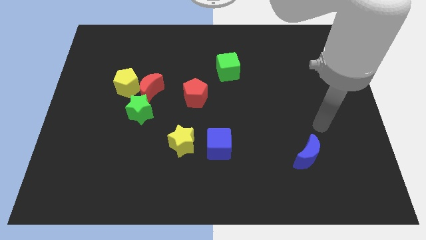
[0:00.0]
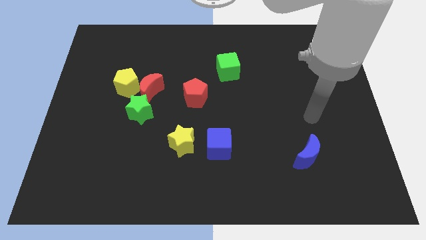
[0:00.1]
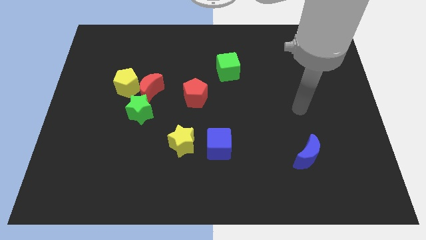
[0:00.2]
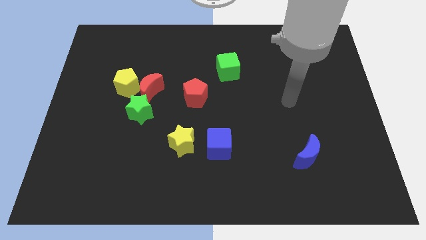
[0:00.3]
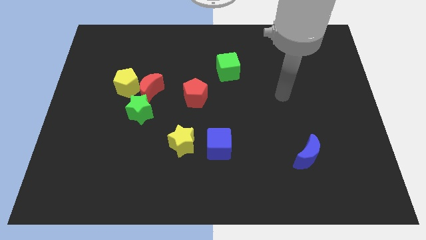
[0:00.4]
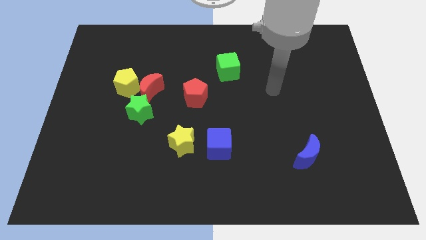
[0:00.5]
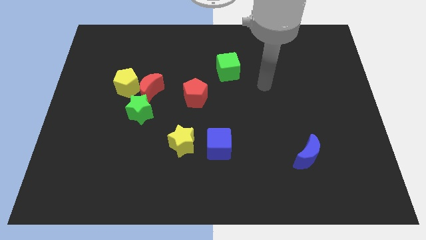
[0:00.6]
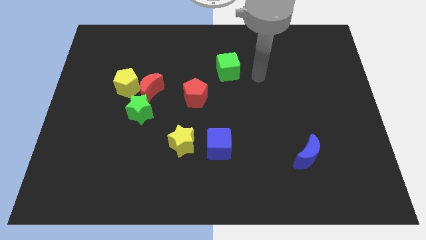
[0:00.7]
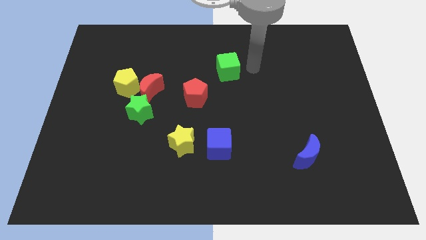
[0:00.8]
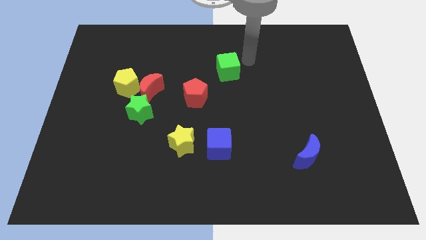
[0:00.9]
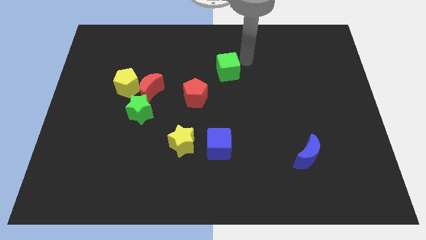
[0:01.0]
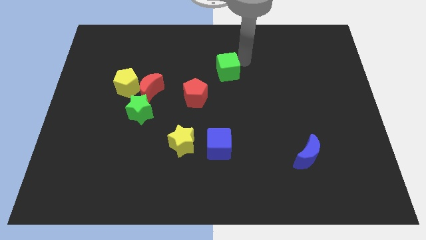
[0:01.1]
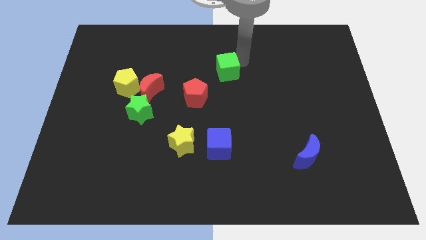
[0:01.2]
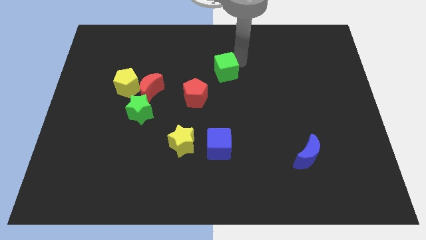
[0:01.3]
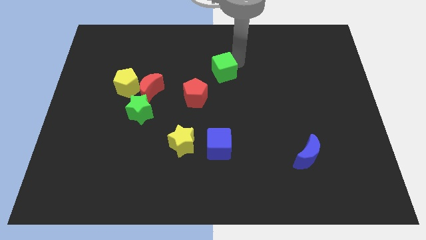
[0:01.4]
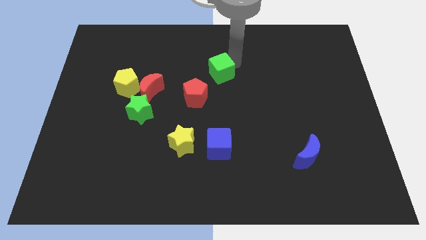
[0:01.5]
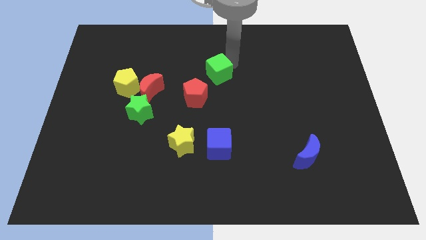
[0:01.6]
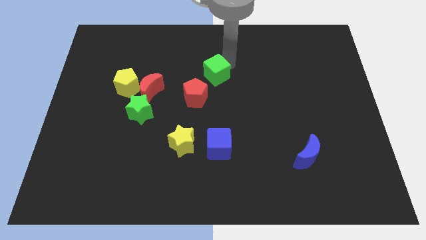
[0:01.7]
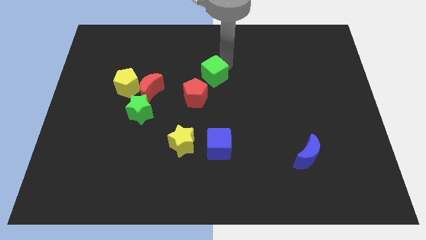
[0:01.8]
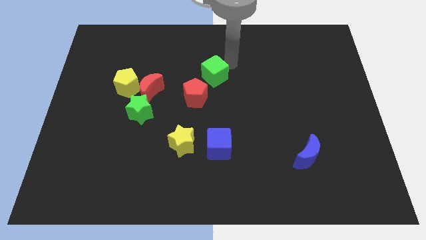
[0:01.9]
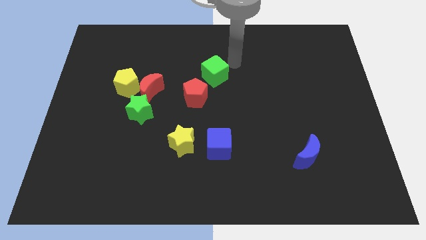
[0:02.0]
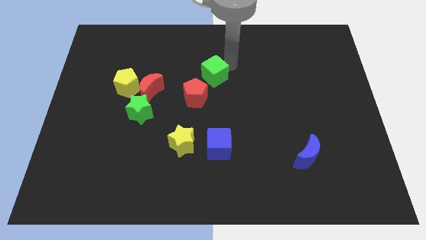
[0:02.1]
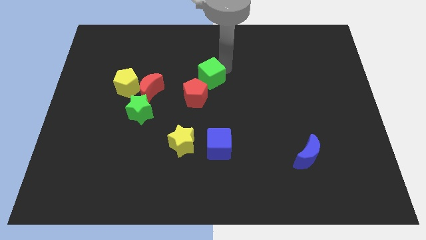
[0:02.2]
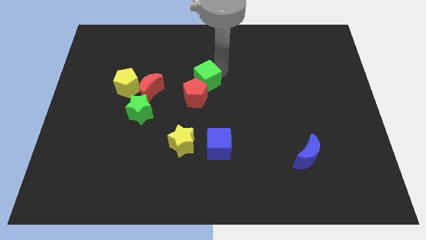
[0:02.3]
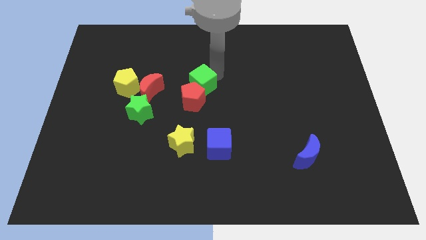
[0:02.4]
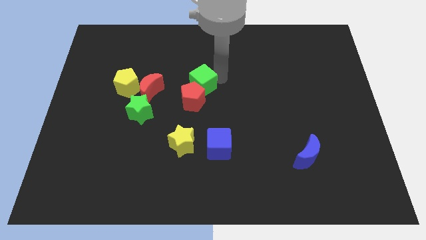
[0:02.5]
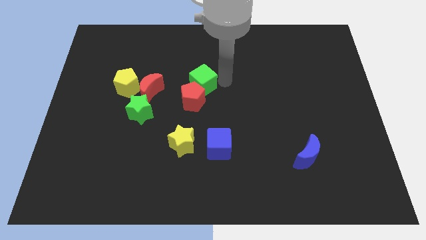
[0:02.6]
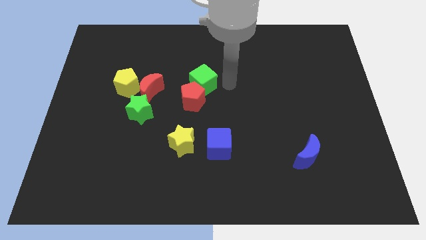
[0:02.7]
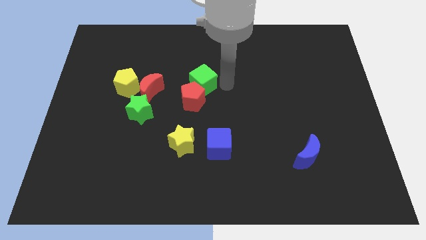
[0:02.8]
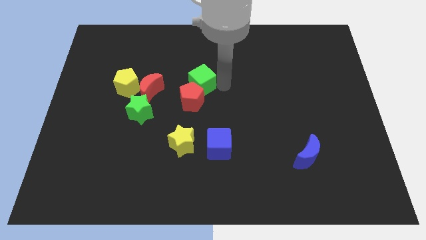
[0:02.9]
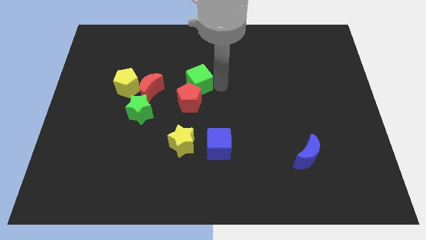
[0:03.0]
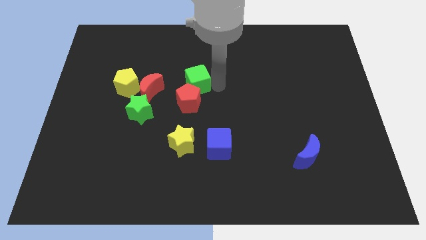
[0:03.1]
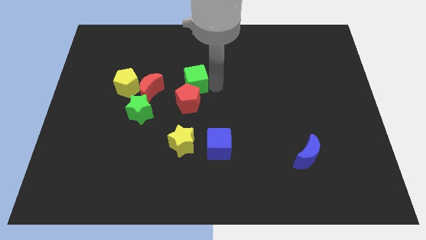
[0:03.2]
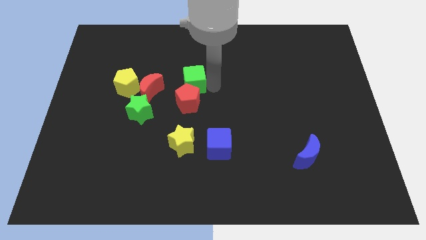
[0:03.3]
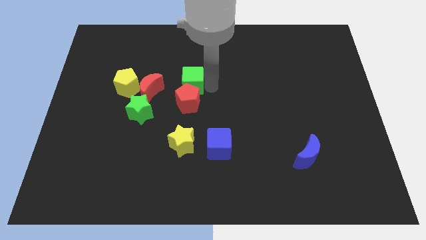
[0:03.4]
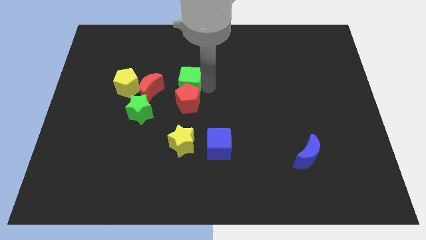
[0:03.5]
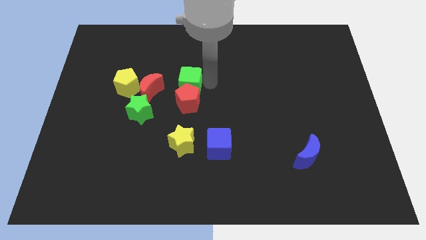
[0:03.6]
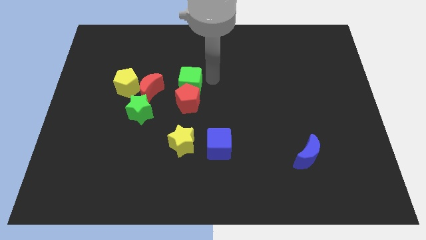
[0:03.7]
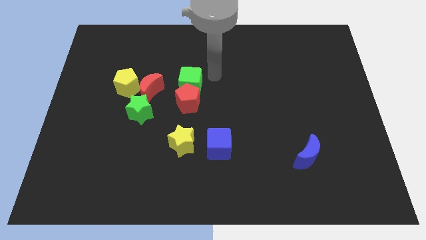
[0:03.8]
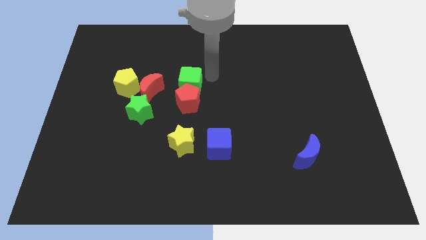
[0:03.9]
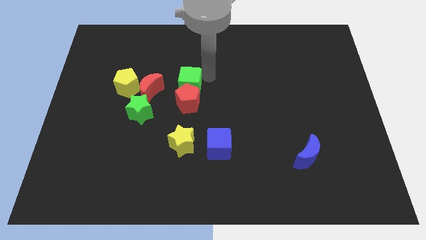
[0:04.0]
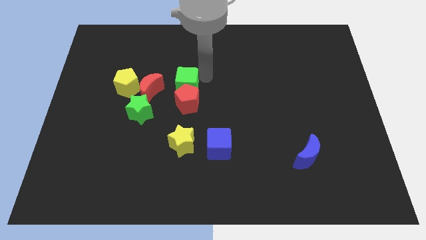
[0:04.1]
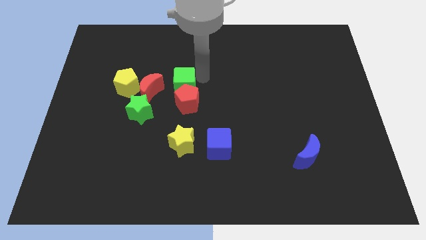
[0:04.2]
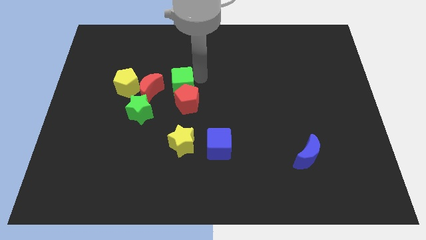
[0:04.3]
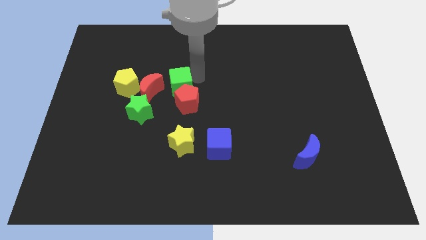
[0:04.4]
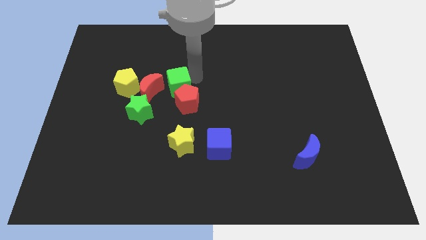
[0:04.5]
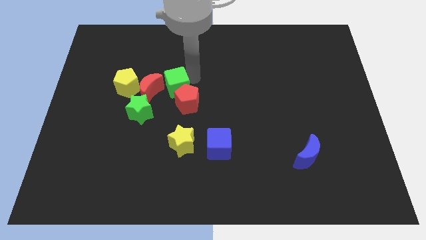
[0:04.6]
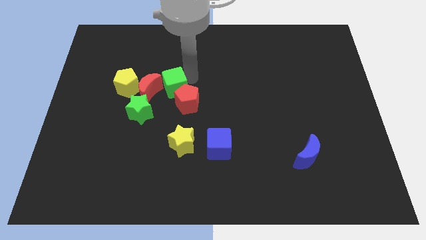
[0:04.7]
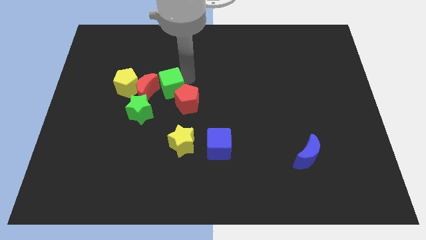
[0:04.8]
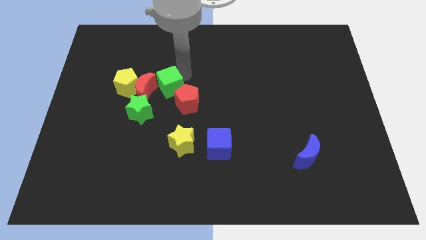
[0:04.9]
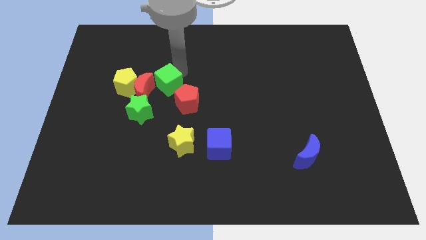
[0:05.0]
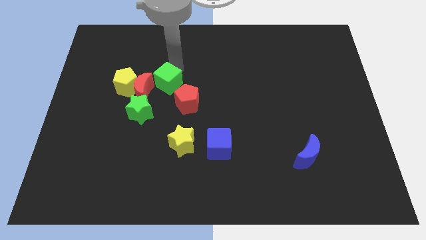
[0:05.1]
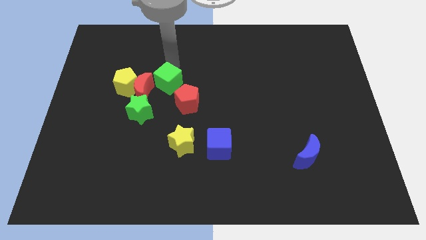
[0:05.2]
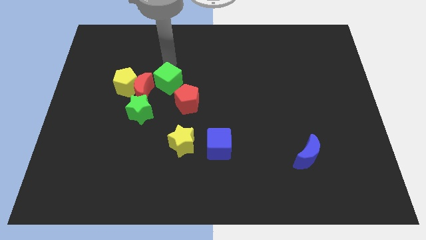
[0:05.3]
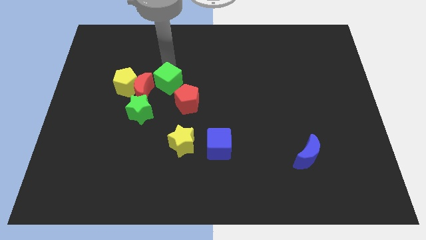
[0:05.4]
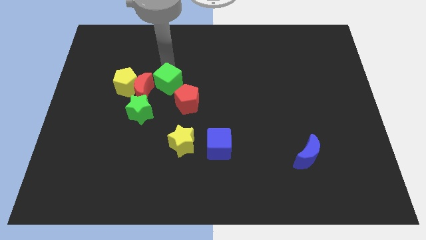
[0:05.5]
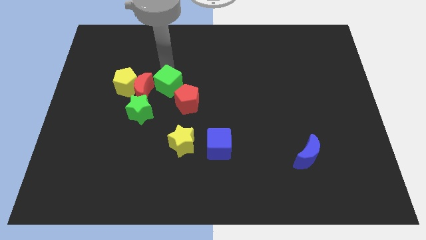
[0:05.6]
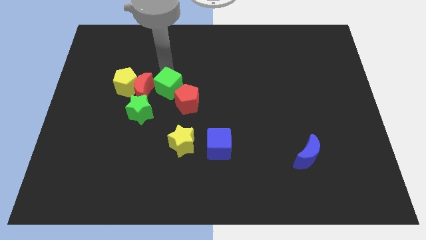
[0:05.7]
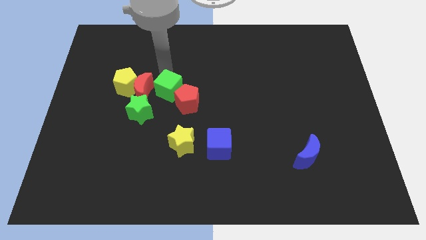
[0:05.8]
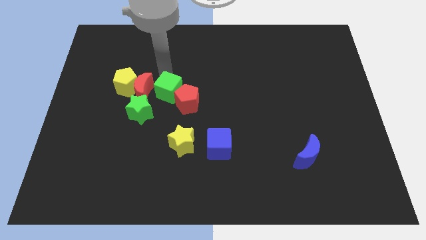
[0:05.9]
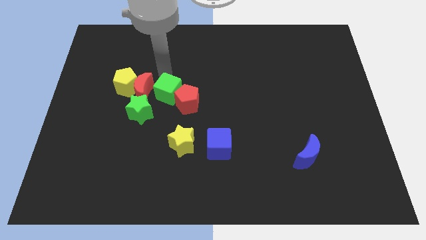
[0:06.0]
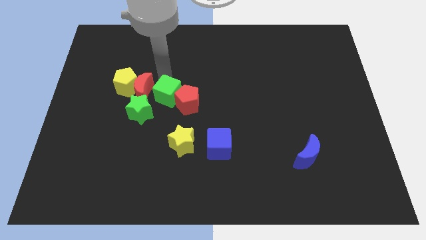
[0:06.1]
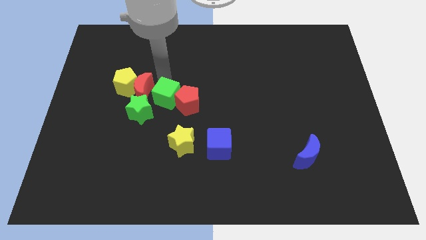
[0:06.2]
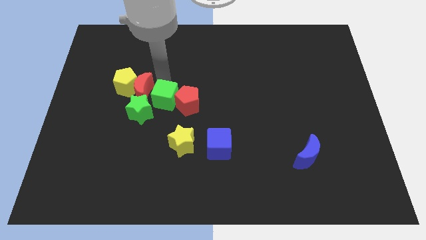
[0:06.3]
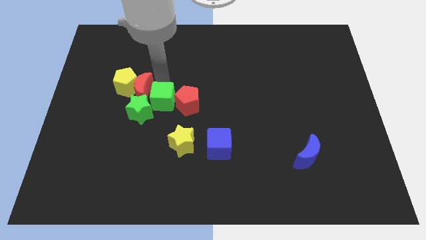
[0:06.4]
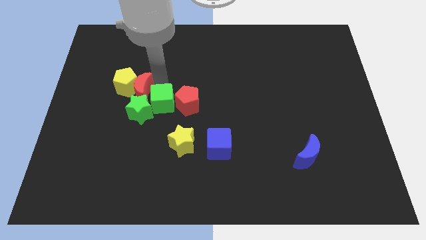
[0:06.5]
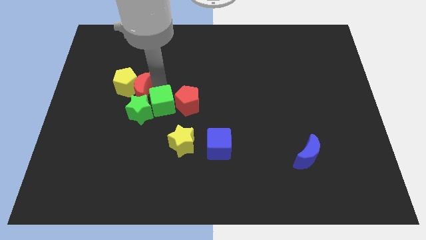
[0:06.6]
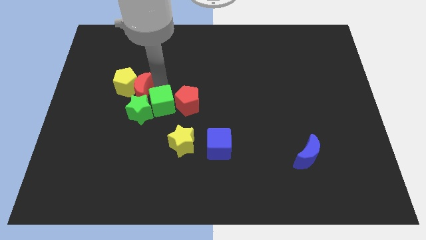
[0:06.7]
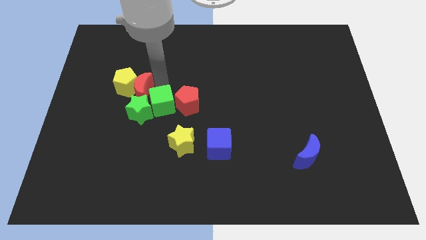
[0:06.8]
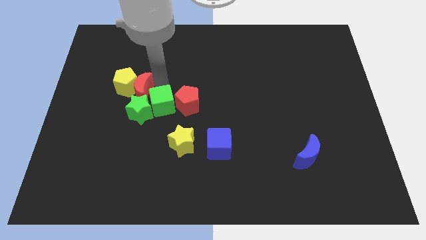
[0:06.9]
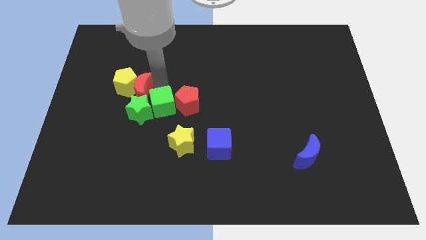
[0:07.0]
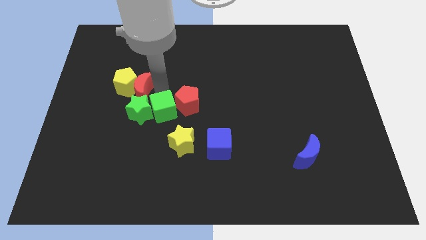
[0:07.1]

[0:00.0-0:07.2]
put the green cube diagonally down and to the right of the green star

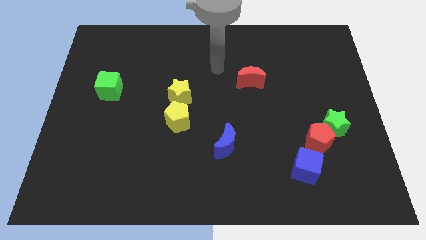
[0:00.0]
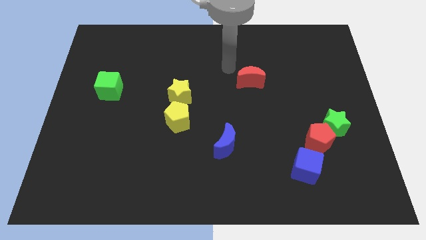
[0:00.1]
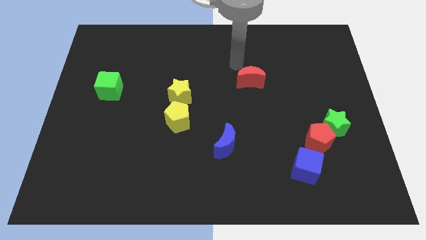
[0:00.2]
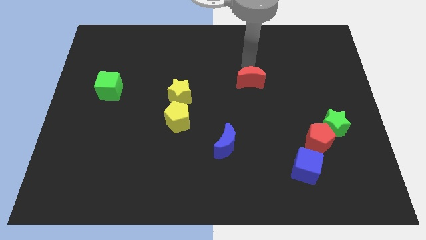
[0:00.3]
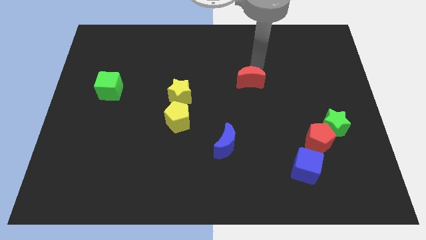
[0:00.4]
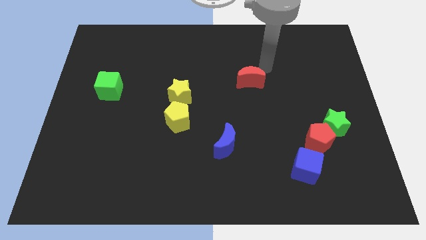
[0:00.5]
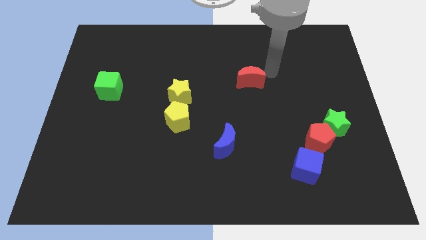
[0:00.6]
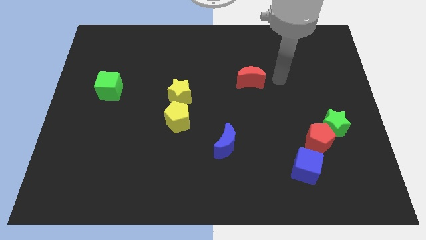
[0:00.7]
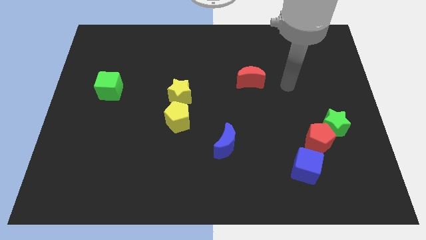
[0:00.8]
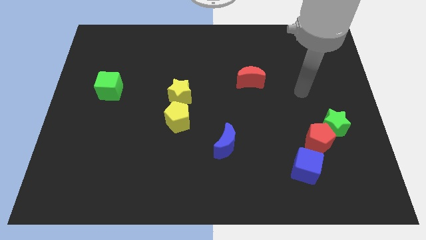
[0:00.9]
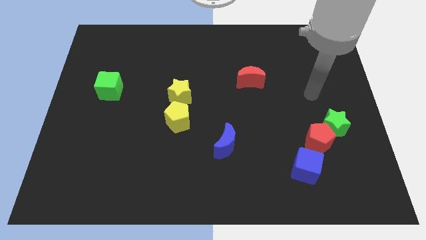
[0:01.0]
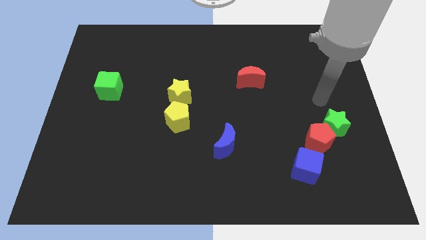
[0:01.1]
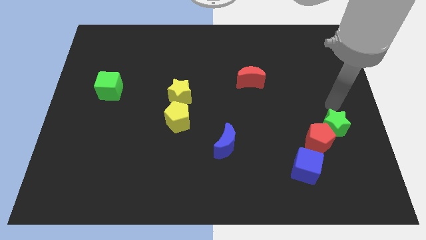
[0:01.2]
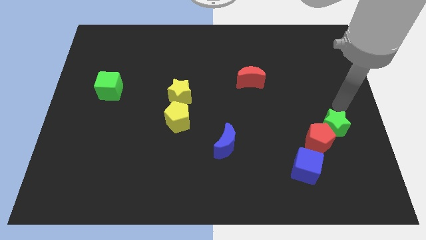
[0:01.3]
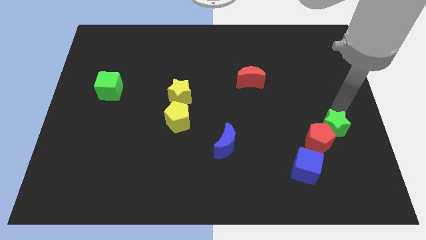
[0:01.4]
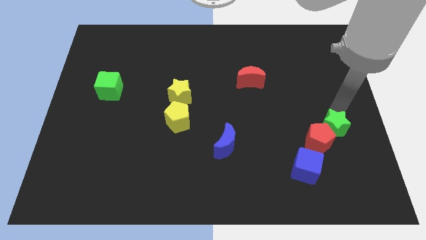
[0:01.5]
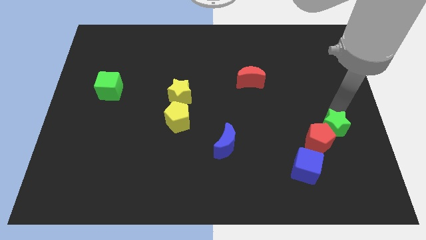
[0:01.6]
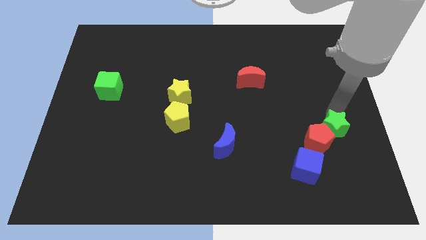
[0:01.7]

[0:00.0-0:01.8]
slide the green star diagonally up and to the right of the blue cube
